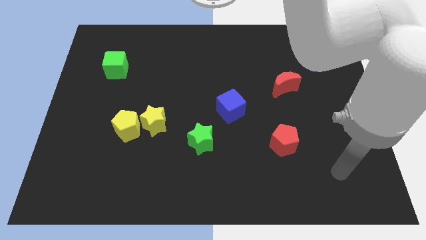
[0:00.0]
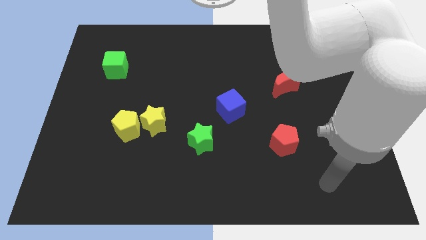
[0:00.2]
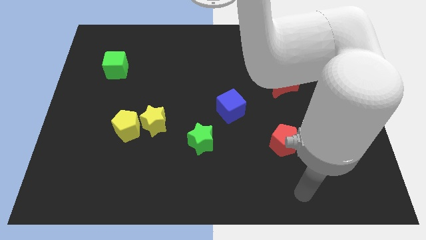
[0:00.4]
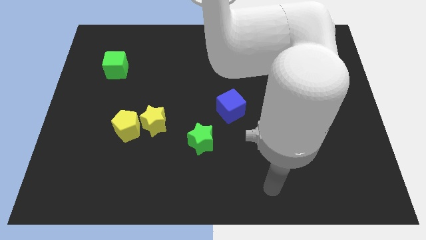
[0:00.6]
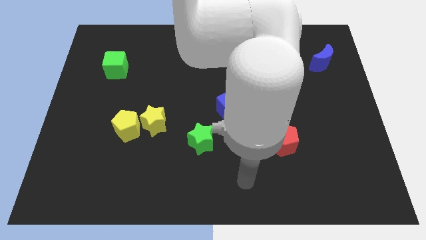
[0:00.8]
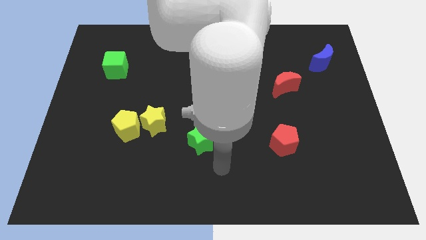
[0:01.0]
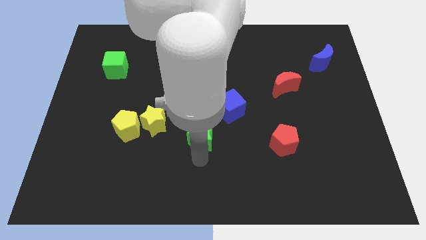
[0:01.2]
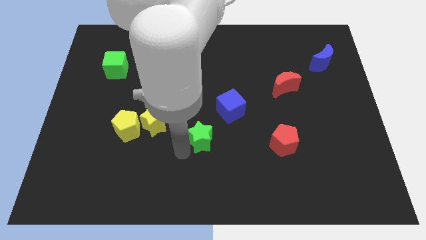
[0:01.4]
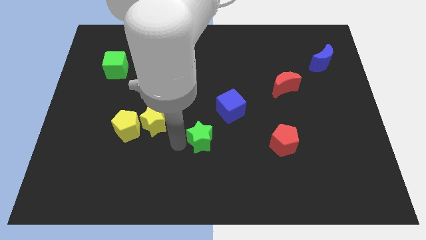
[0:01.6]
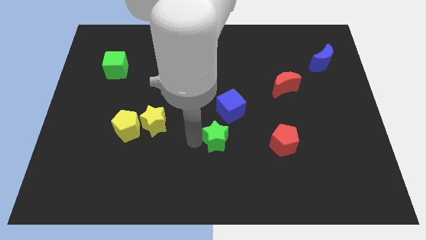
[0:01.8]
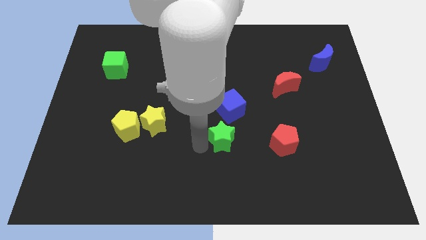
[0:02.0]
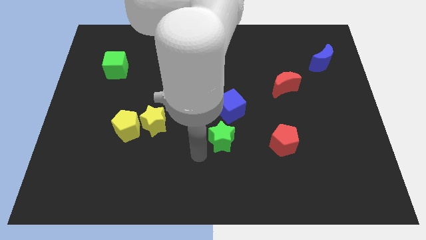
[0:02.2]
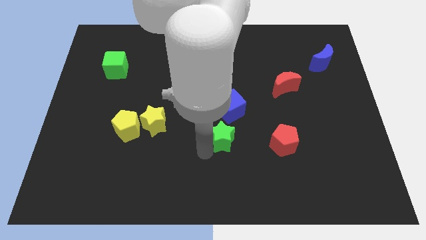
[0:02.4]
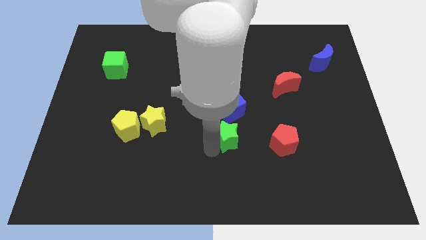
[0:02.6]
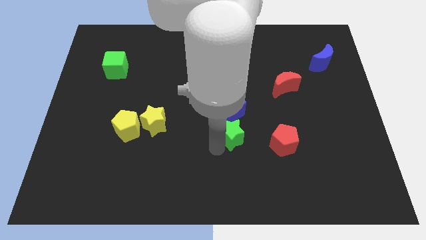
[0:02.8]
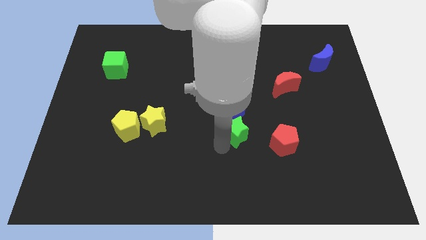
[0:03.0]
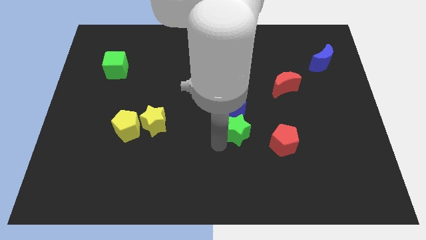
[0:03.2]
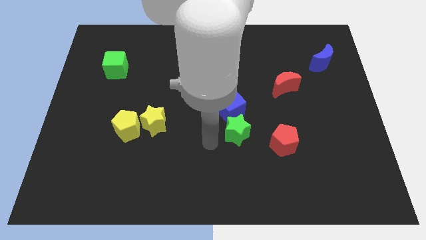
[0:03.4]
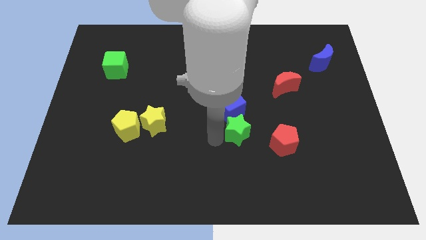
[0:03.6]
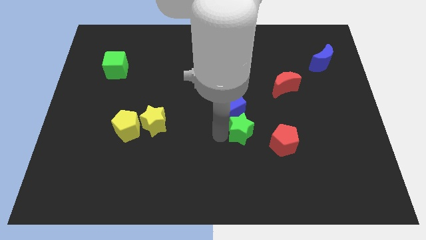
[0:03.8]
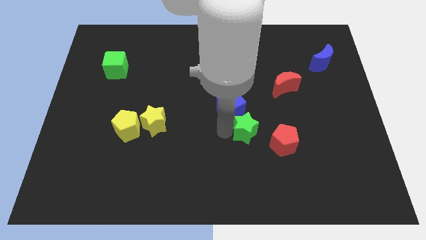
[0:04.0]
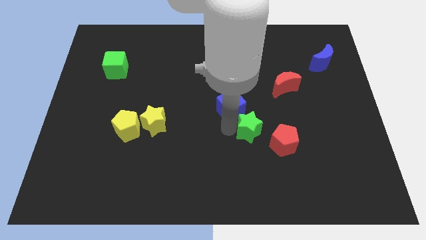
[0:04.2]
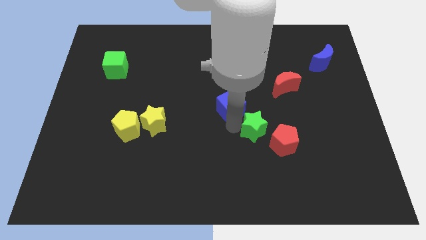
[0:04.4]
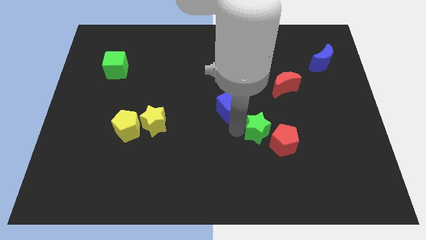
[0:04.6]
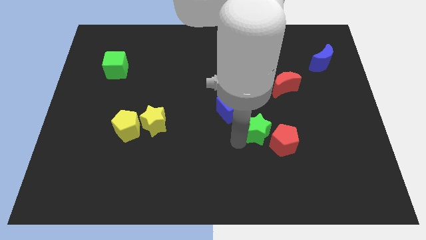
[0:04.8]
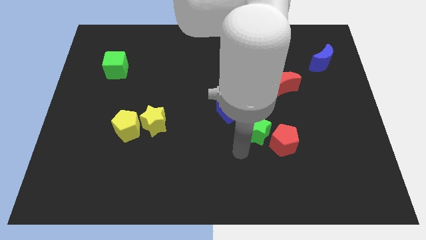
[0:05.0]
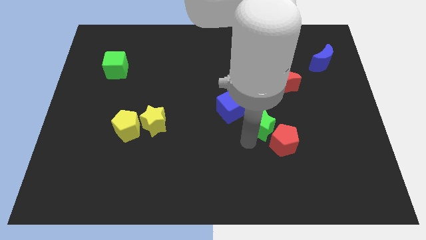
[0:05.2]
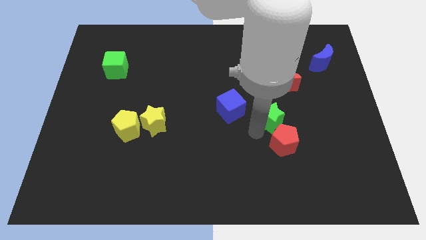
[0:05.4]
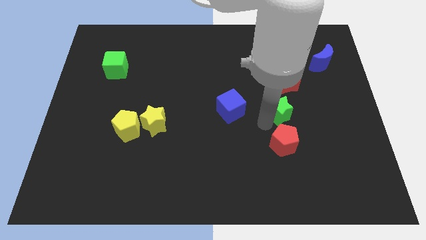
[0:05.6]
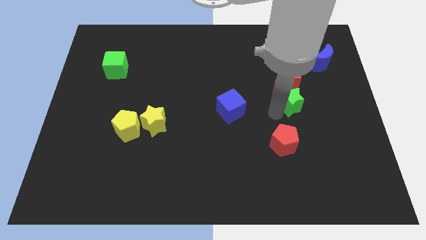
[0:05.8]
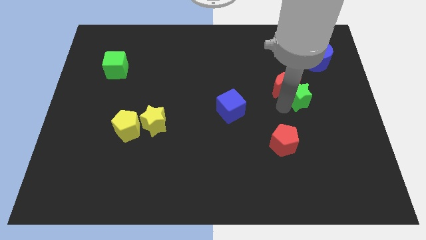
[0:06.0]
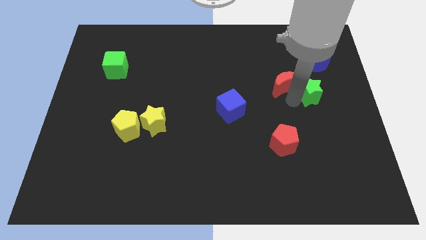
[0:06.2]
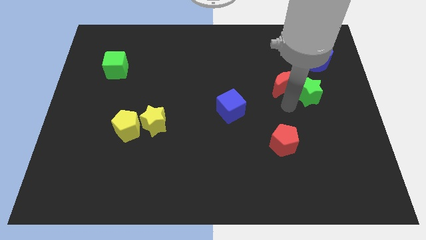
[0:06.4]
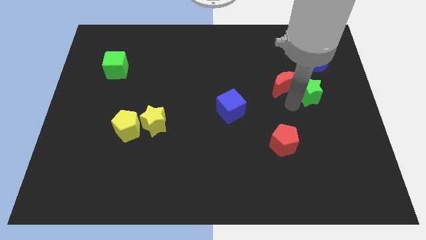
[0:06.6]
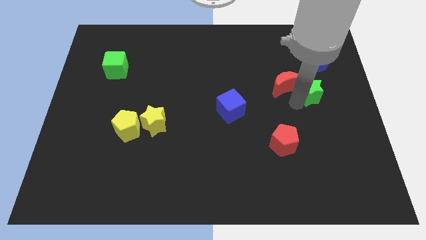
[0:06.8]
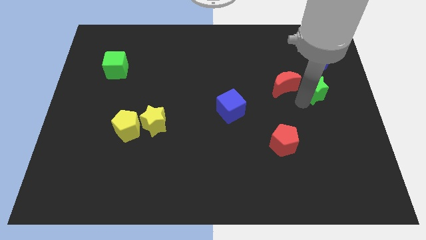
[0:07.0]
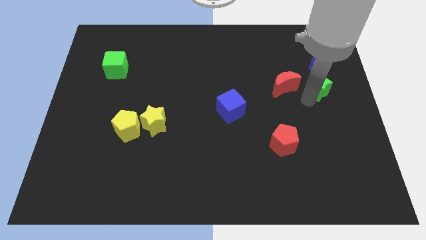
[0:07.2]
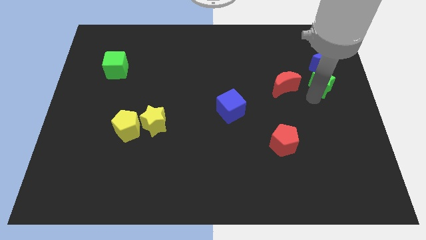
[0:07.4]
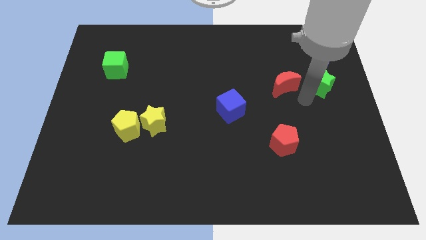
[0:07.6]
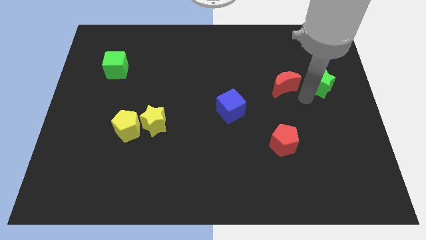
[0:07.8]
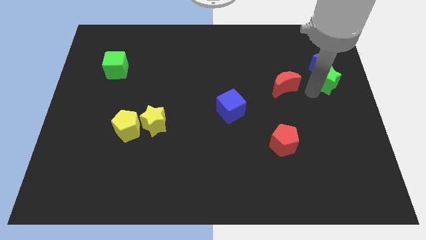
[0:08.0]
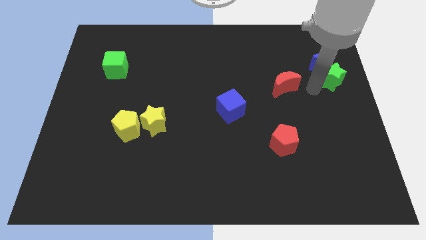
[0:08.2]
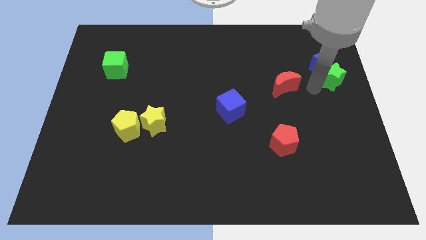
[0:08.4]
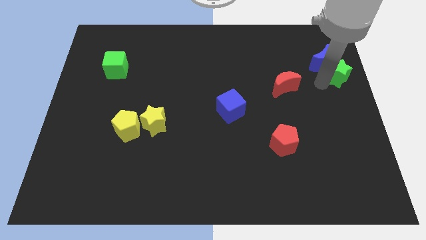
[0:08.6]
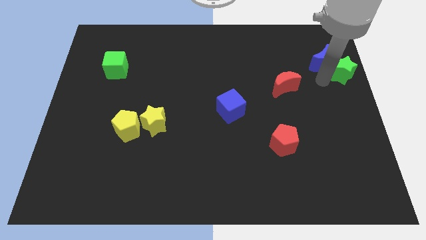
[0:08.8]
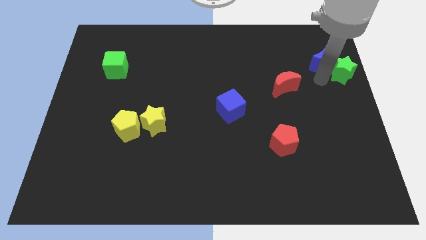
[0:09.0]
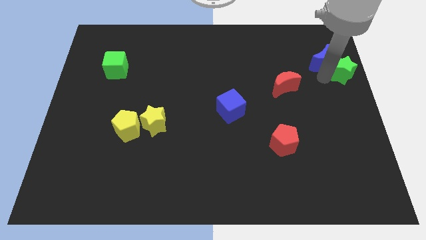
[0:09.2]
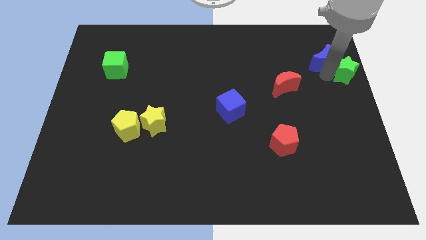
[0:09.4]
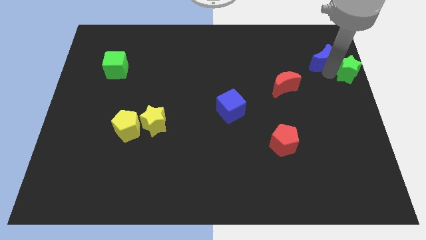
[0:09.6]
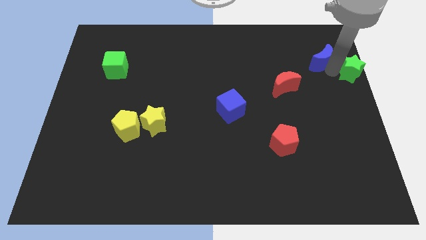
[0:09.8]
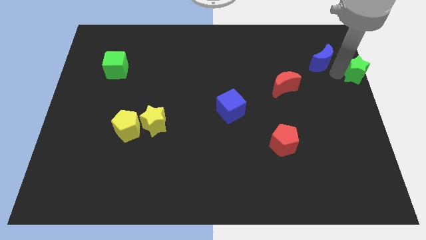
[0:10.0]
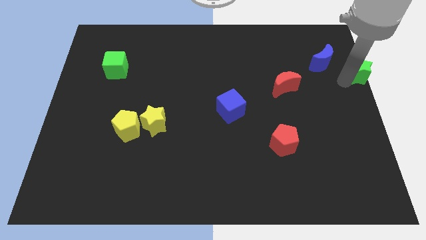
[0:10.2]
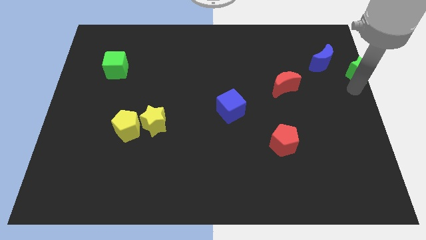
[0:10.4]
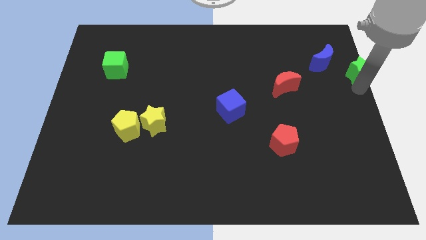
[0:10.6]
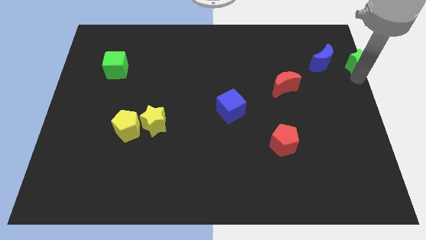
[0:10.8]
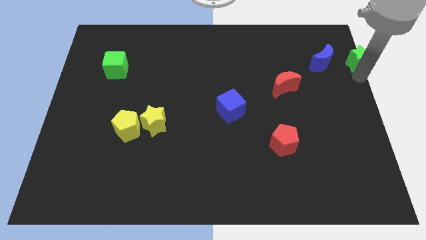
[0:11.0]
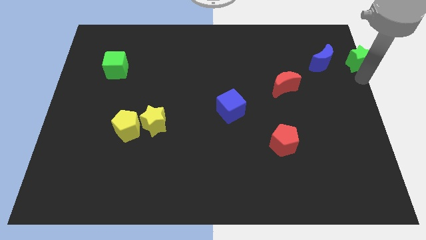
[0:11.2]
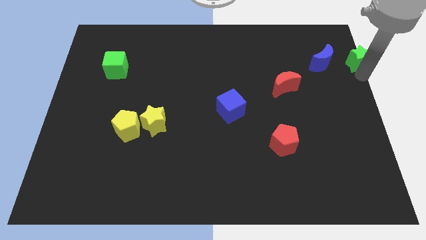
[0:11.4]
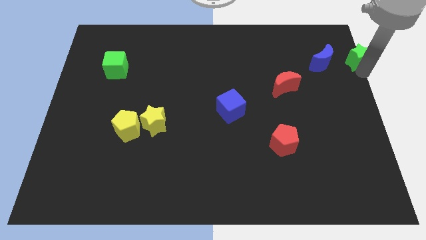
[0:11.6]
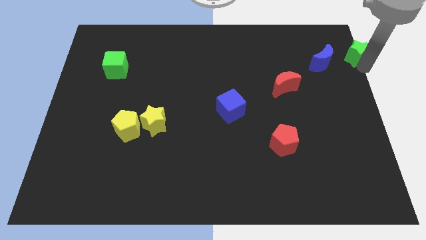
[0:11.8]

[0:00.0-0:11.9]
put the green star to the upper right corner

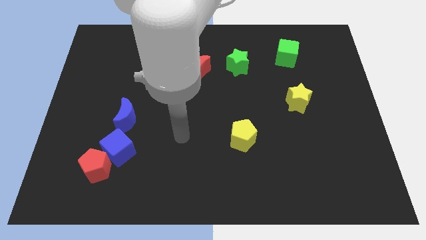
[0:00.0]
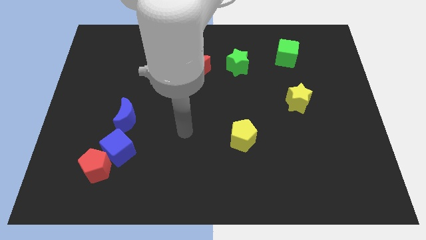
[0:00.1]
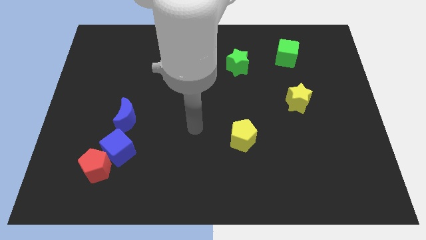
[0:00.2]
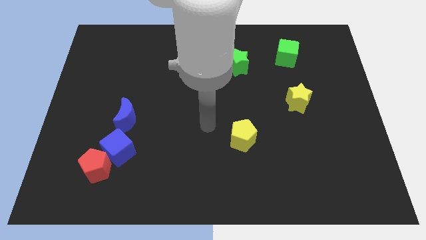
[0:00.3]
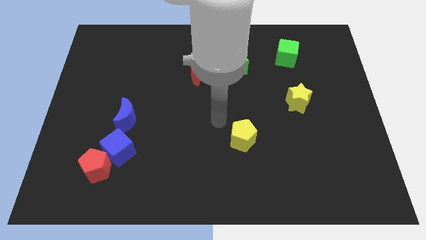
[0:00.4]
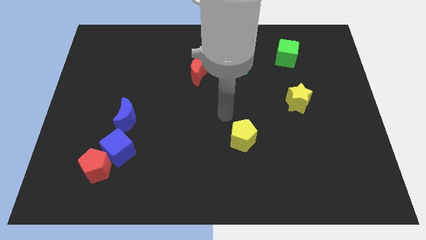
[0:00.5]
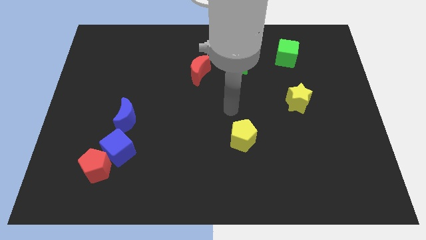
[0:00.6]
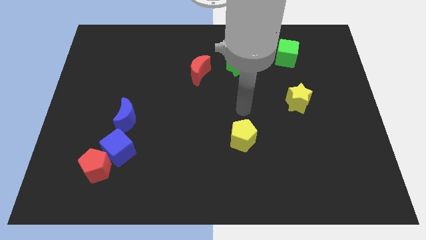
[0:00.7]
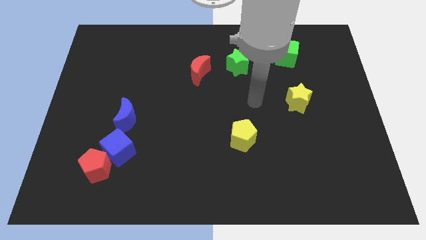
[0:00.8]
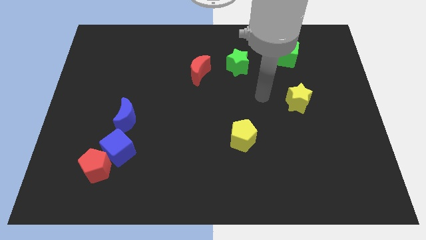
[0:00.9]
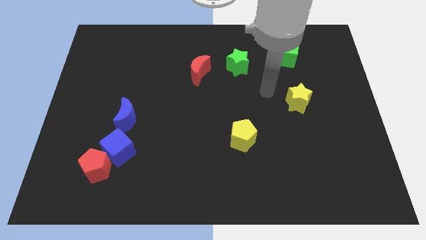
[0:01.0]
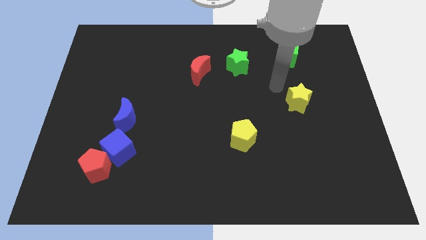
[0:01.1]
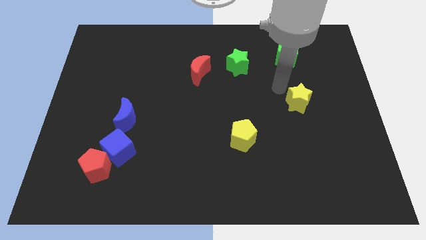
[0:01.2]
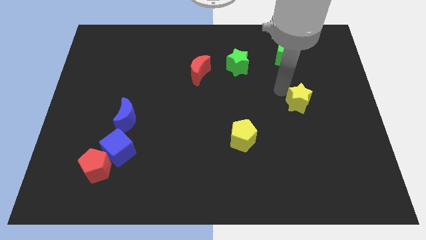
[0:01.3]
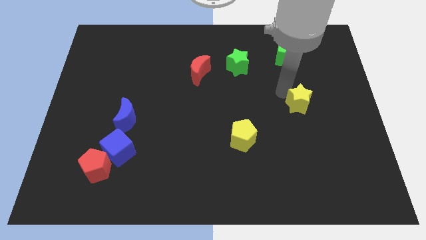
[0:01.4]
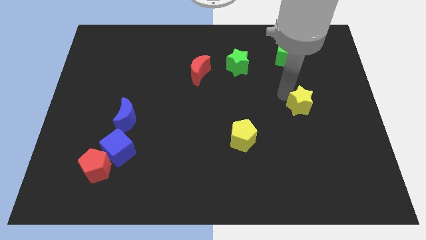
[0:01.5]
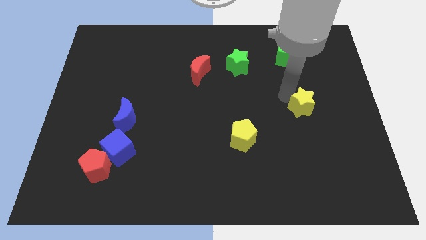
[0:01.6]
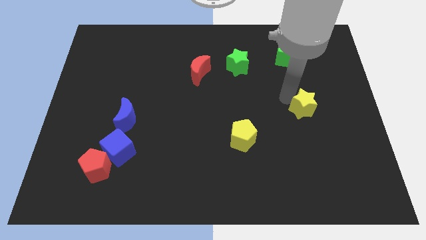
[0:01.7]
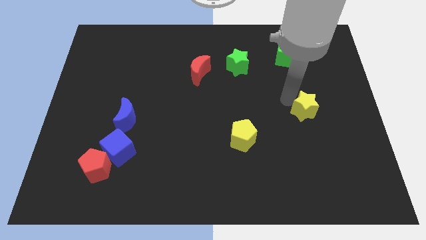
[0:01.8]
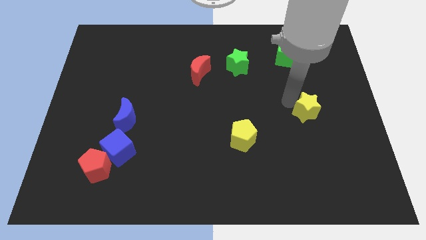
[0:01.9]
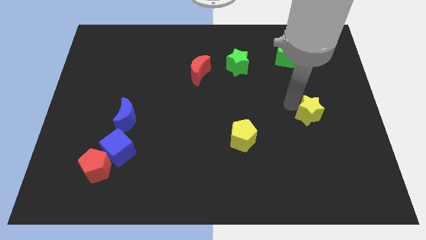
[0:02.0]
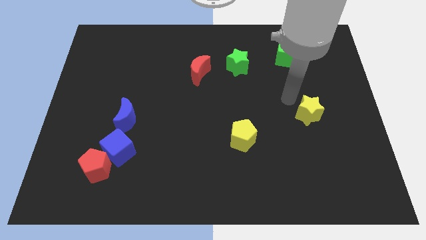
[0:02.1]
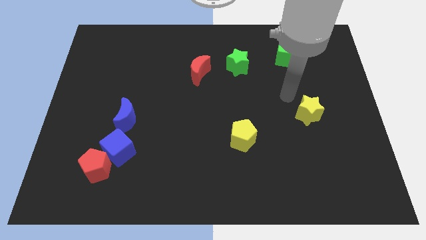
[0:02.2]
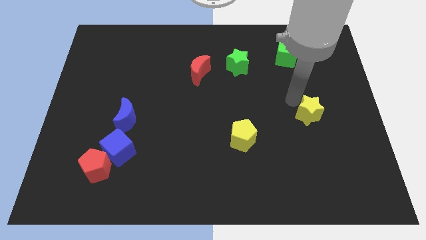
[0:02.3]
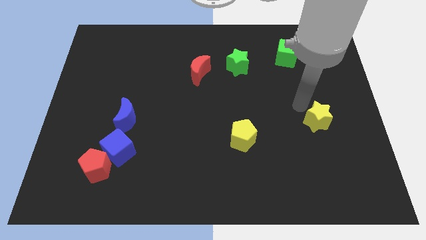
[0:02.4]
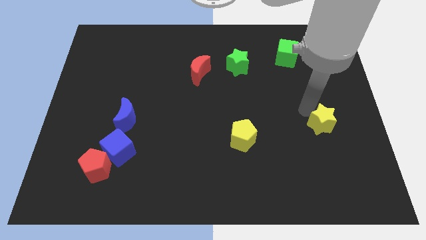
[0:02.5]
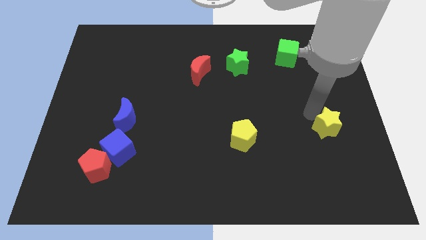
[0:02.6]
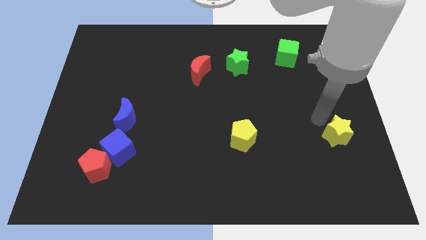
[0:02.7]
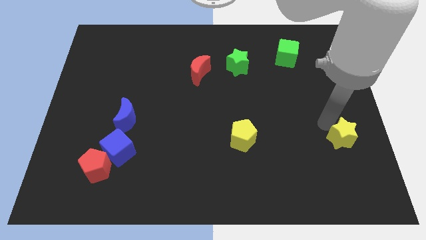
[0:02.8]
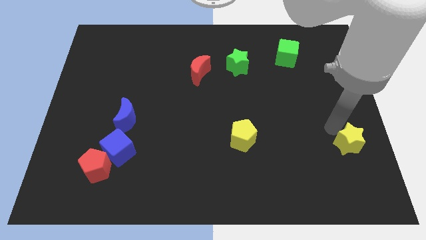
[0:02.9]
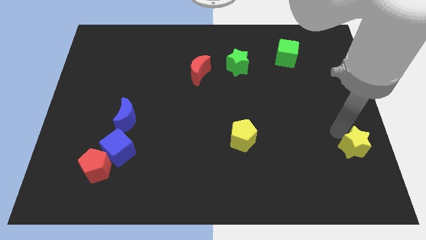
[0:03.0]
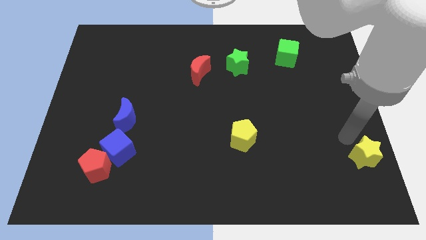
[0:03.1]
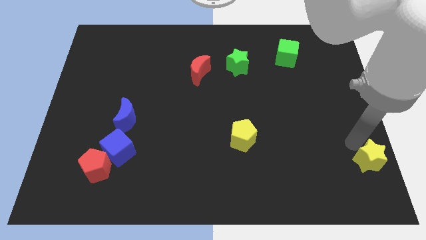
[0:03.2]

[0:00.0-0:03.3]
push the yellow star to the bottom right of the board
